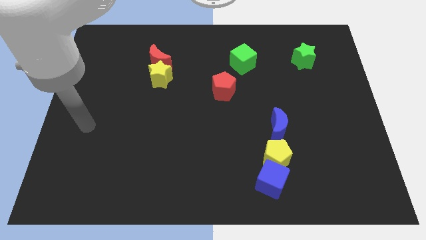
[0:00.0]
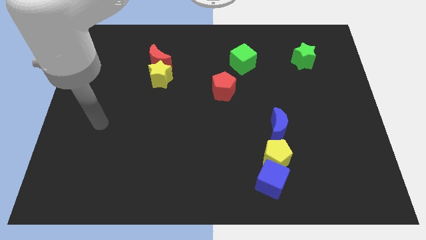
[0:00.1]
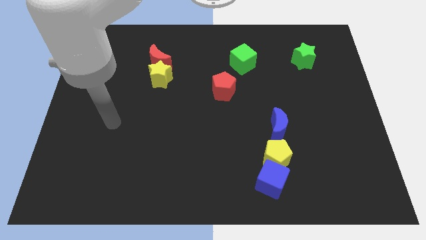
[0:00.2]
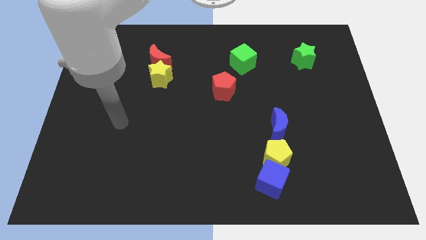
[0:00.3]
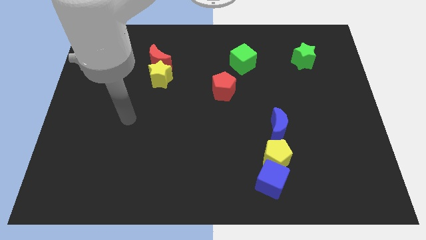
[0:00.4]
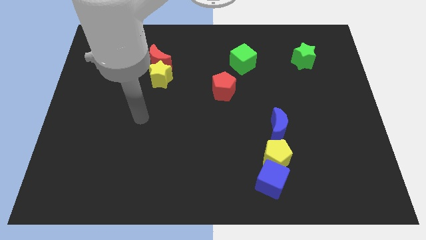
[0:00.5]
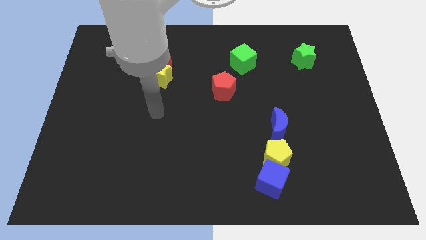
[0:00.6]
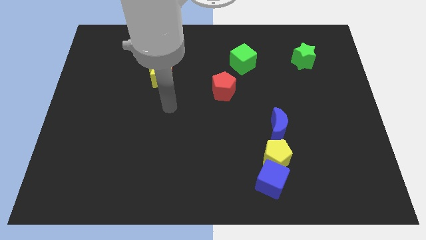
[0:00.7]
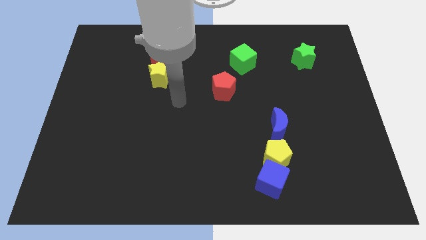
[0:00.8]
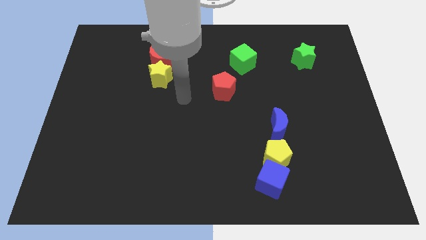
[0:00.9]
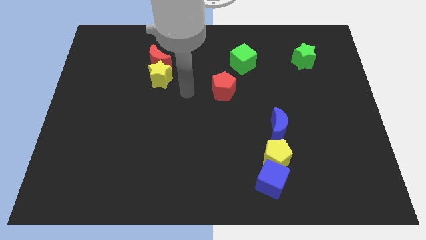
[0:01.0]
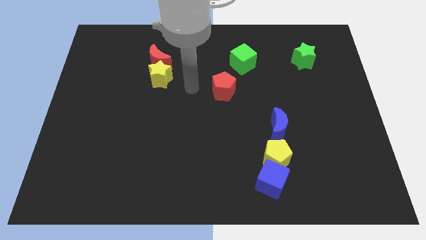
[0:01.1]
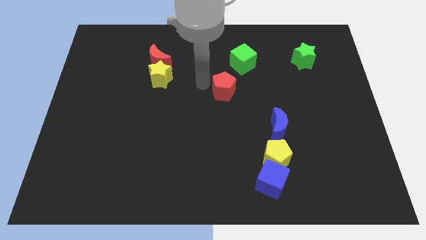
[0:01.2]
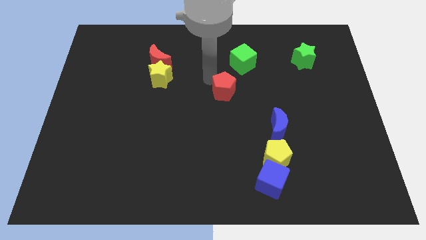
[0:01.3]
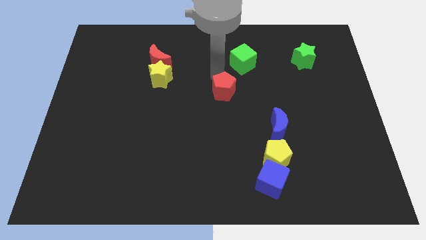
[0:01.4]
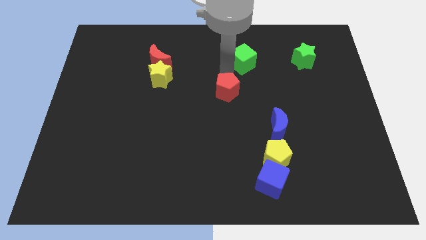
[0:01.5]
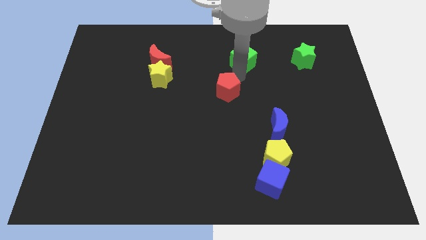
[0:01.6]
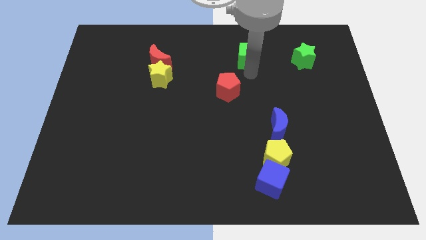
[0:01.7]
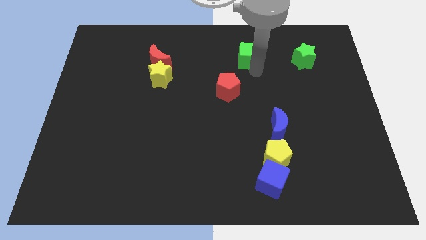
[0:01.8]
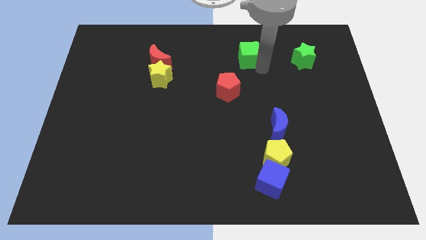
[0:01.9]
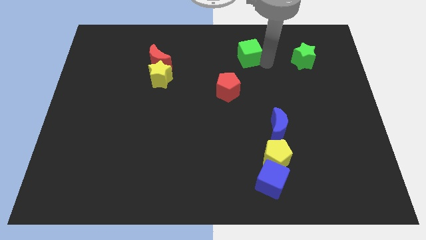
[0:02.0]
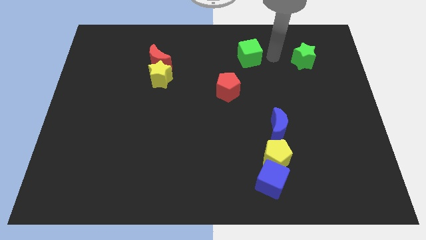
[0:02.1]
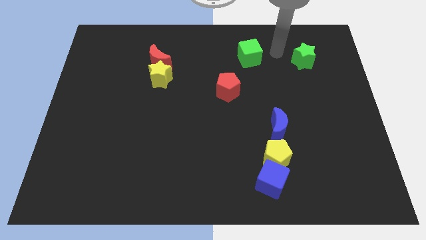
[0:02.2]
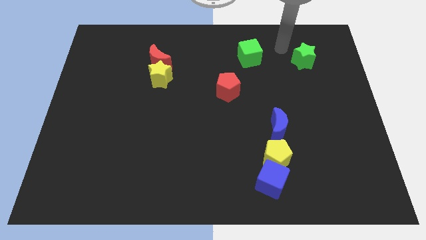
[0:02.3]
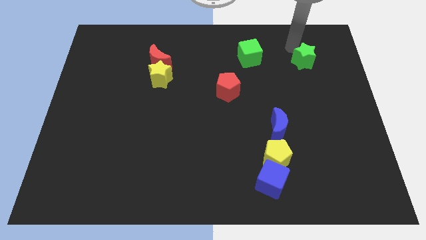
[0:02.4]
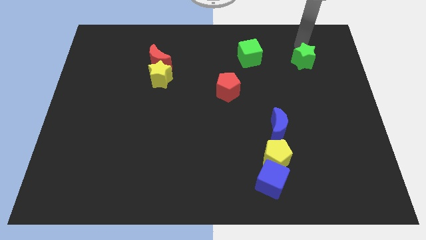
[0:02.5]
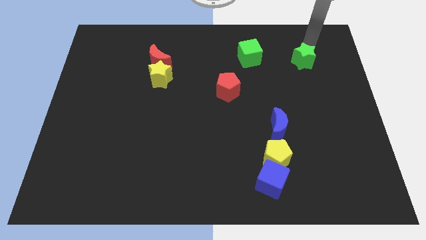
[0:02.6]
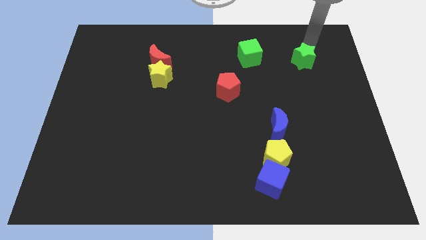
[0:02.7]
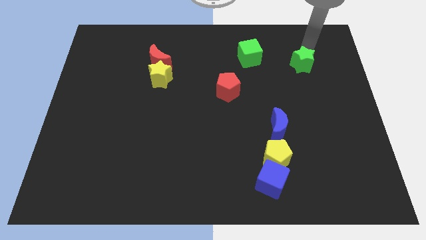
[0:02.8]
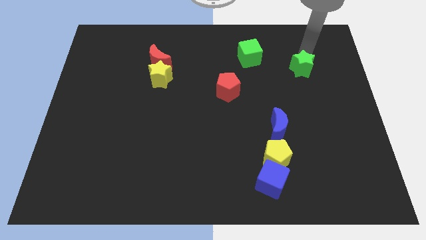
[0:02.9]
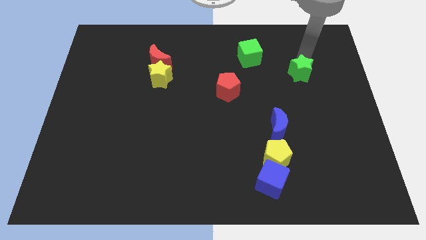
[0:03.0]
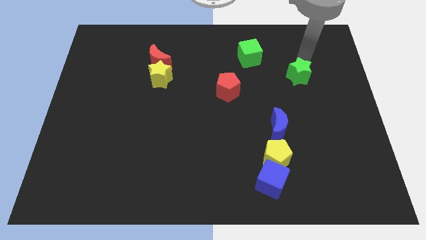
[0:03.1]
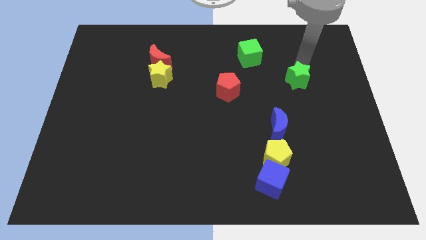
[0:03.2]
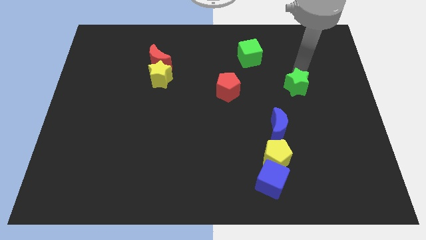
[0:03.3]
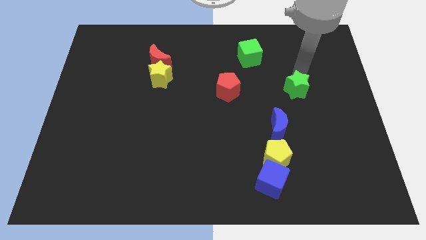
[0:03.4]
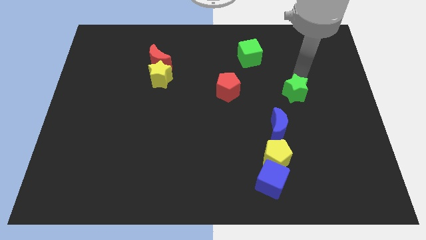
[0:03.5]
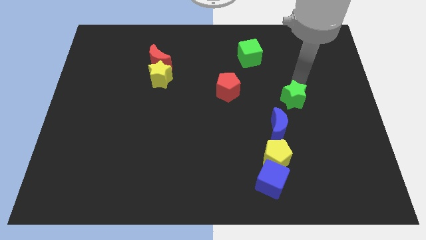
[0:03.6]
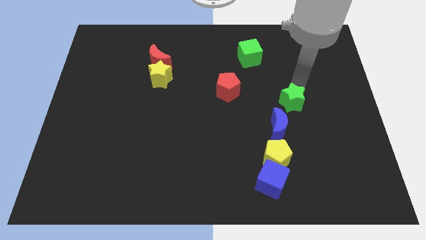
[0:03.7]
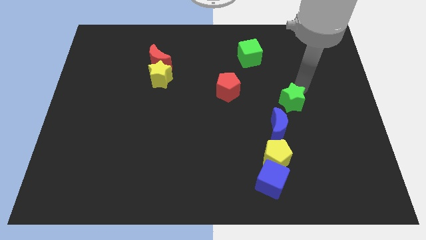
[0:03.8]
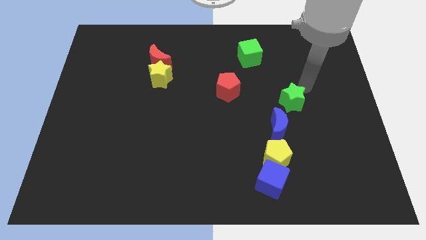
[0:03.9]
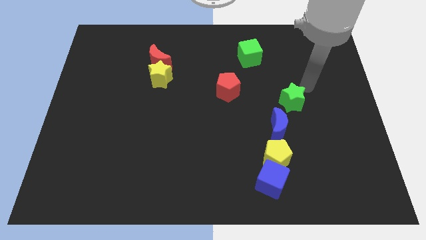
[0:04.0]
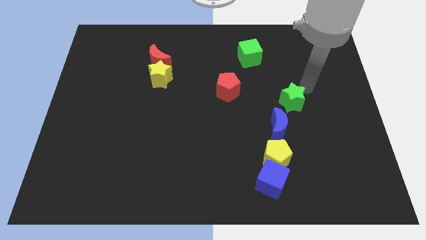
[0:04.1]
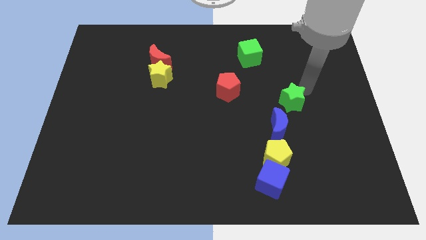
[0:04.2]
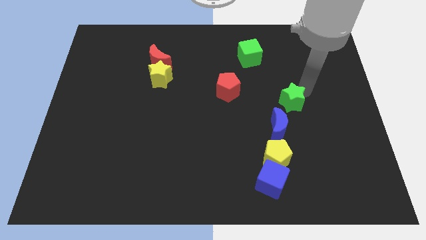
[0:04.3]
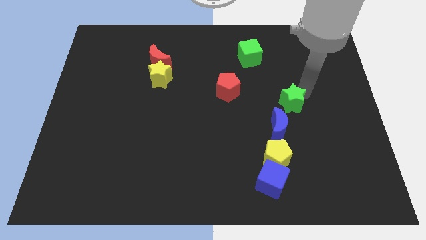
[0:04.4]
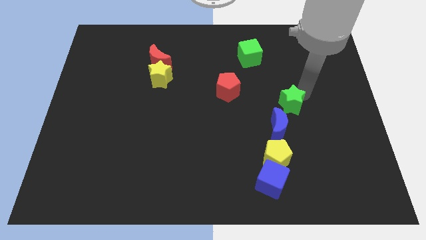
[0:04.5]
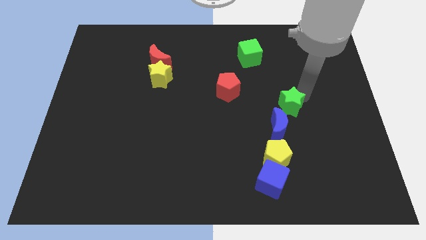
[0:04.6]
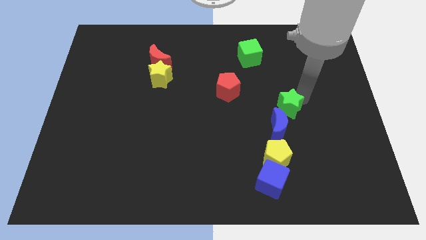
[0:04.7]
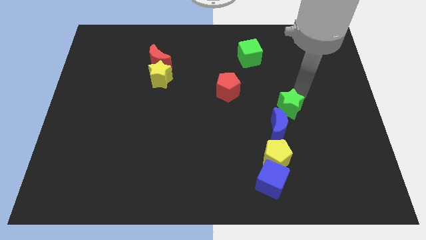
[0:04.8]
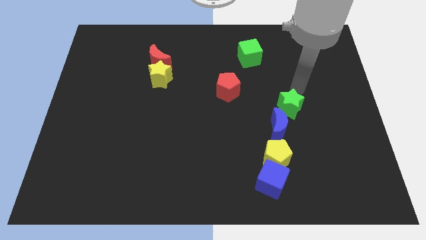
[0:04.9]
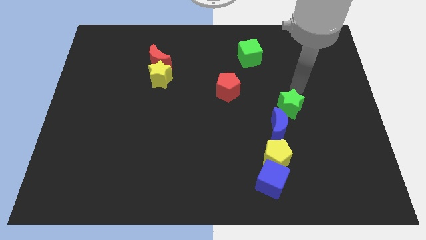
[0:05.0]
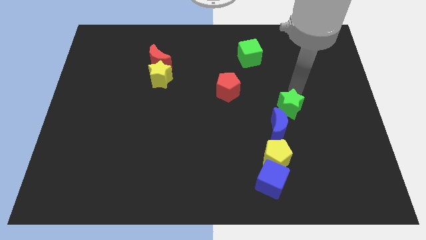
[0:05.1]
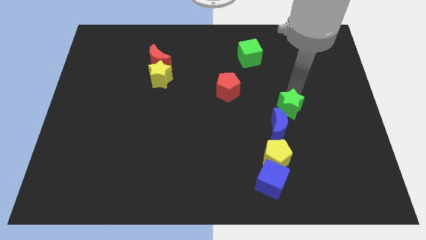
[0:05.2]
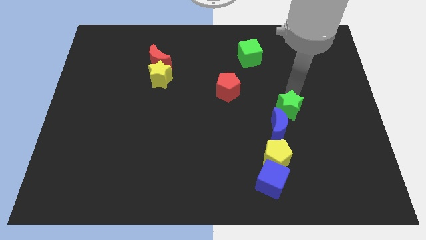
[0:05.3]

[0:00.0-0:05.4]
push the green star next to the blue moon

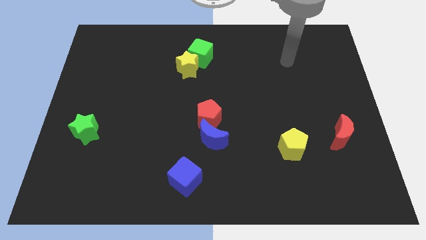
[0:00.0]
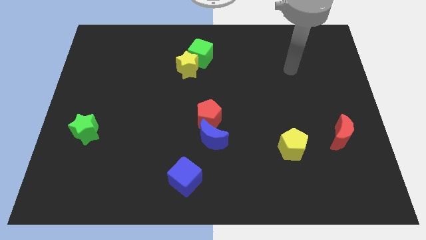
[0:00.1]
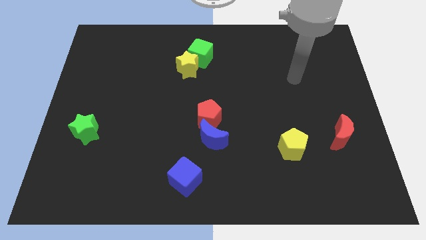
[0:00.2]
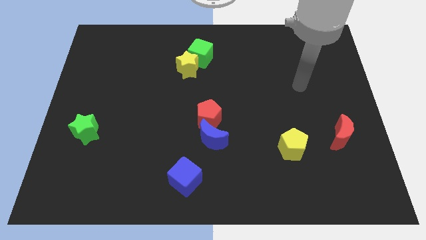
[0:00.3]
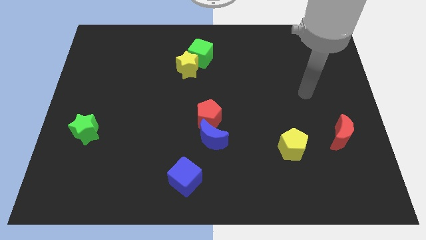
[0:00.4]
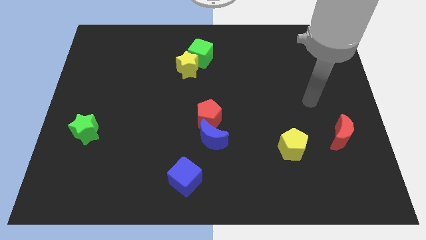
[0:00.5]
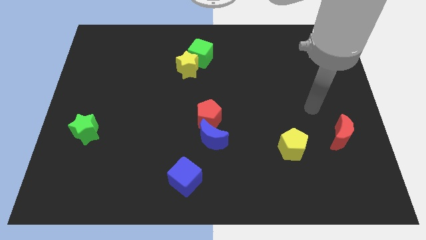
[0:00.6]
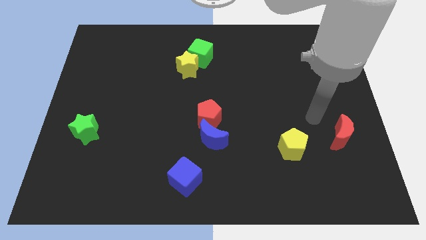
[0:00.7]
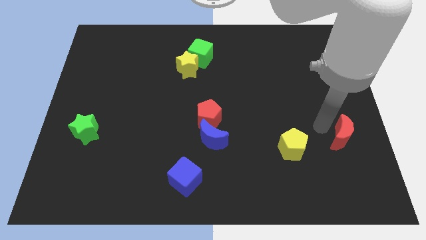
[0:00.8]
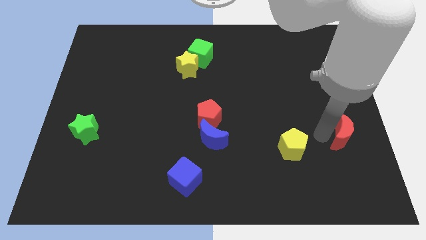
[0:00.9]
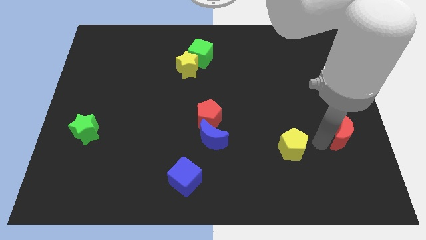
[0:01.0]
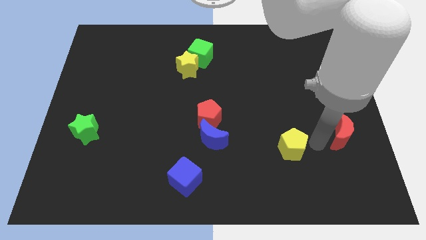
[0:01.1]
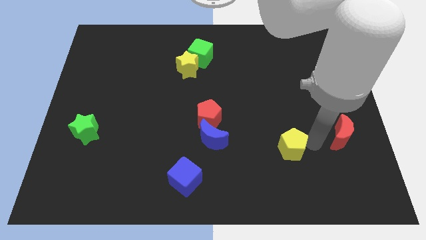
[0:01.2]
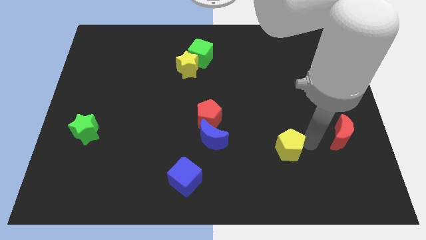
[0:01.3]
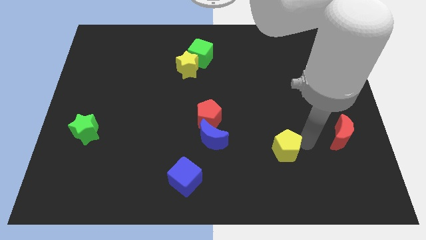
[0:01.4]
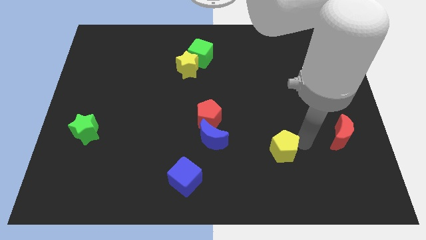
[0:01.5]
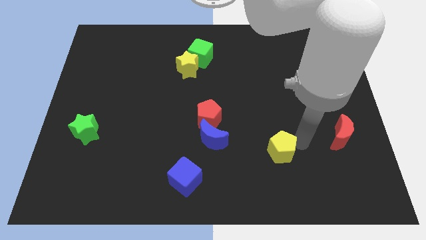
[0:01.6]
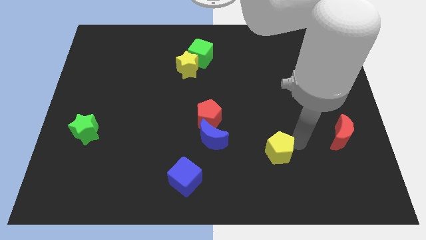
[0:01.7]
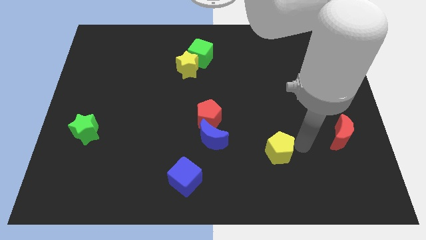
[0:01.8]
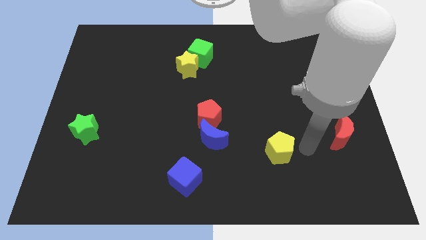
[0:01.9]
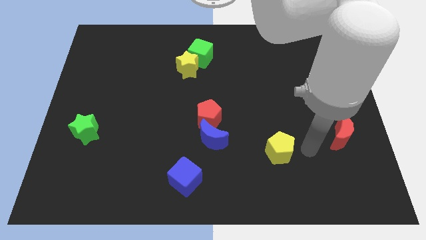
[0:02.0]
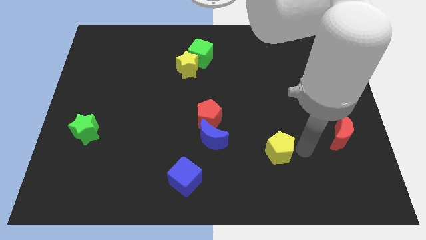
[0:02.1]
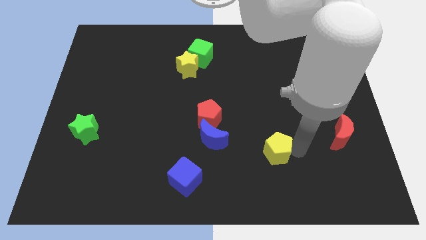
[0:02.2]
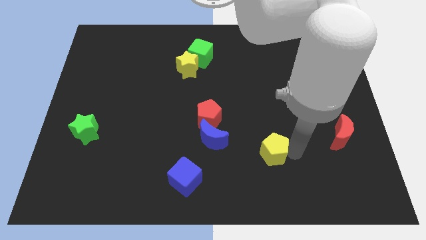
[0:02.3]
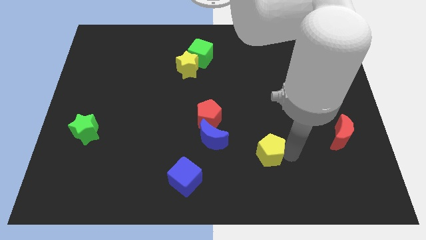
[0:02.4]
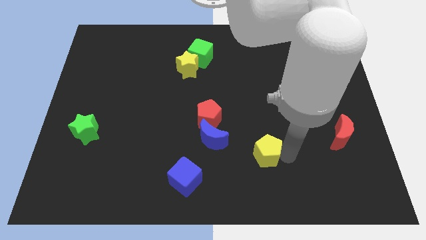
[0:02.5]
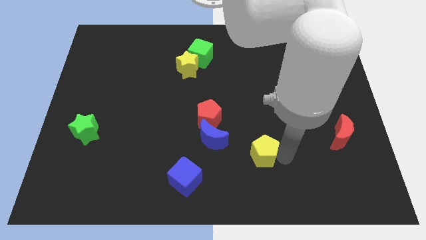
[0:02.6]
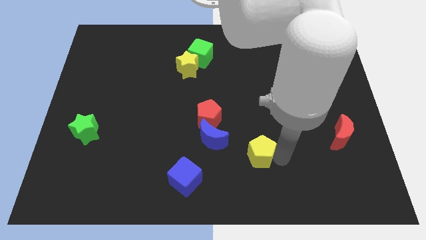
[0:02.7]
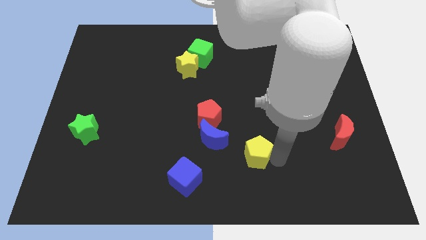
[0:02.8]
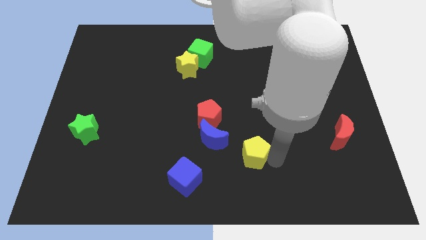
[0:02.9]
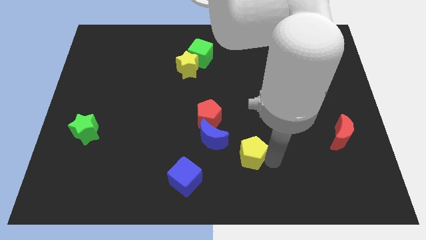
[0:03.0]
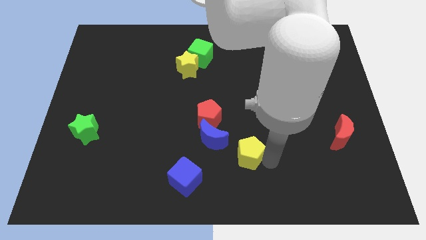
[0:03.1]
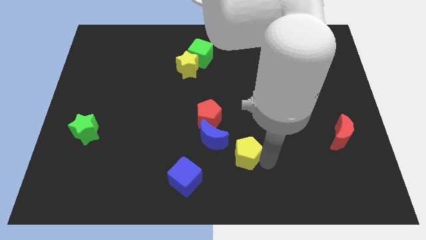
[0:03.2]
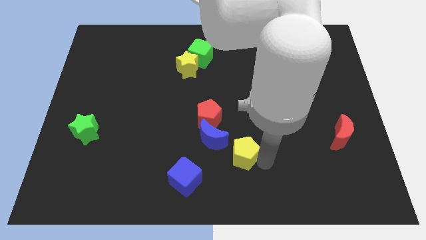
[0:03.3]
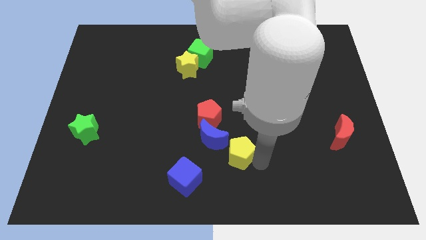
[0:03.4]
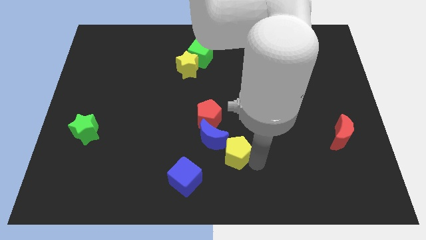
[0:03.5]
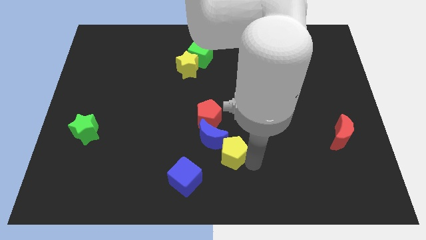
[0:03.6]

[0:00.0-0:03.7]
slide the yellow pentagon towards the blue moon
